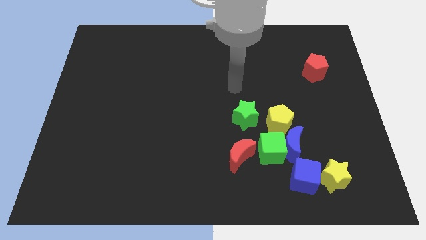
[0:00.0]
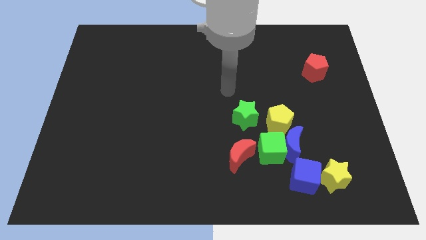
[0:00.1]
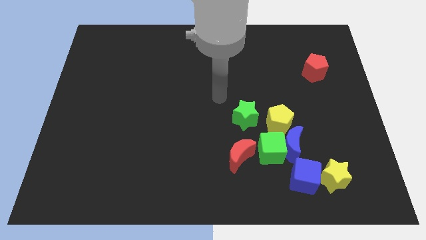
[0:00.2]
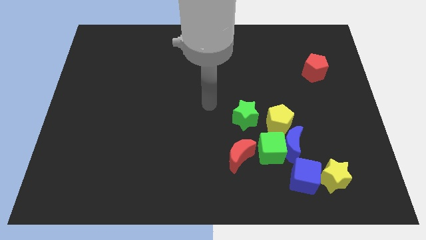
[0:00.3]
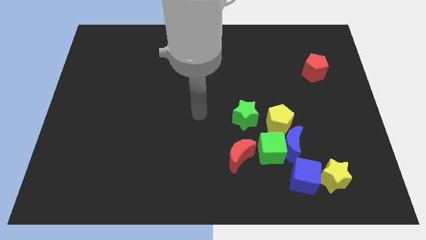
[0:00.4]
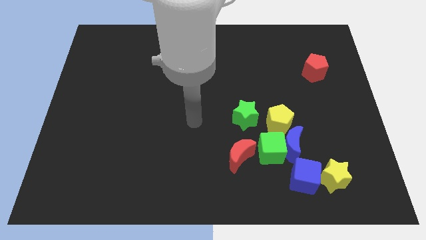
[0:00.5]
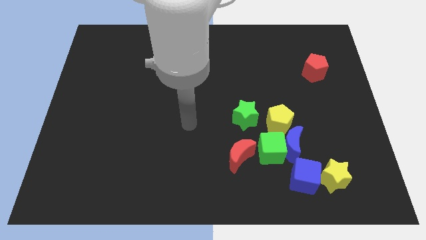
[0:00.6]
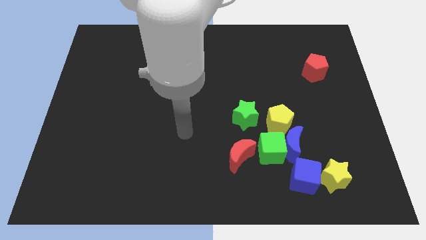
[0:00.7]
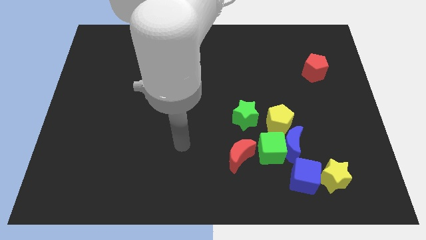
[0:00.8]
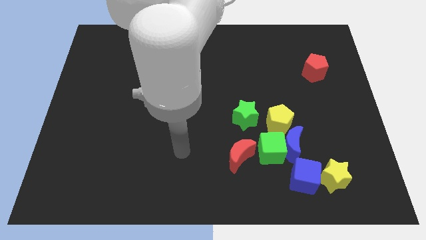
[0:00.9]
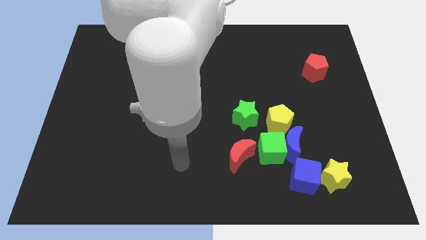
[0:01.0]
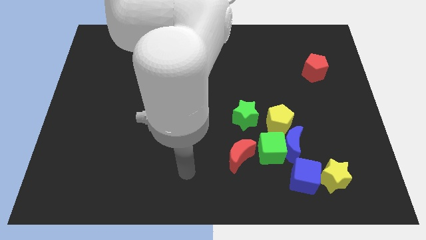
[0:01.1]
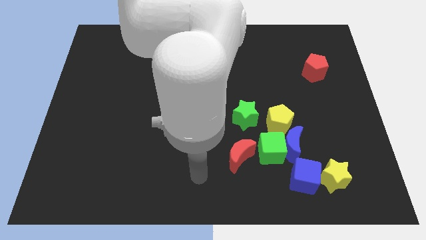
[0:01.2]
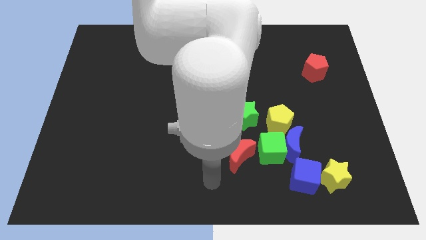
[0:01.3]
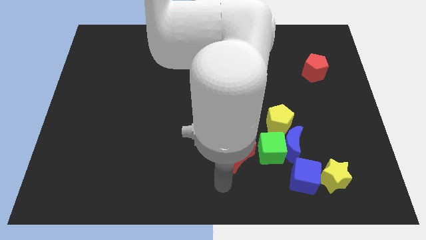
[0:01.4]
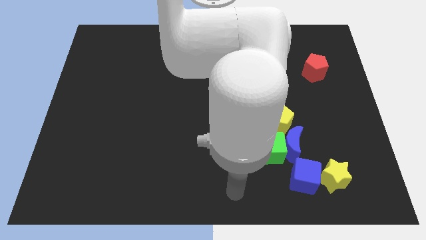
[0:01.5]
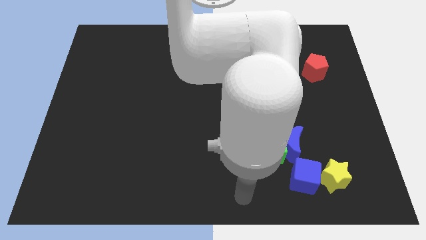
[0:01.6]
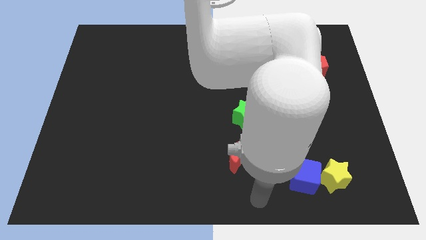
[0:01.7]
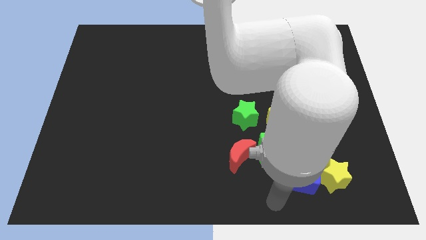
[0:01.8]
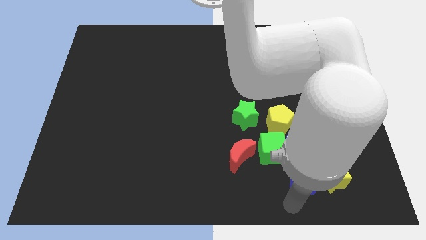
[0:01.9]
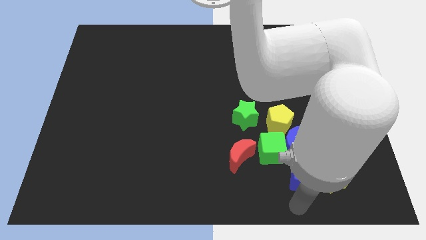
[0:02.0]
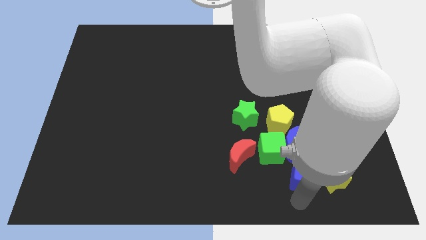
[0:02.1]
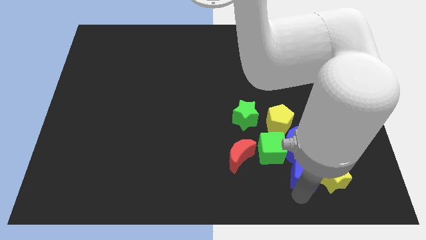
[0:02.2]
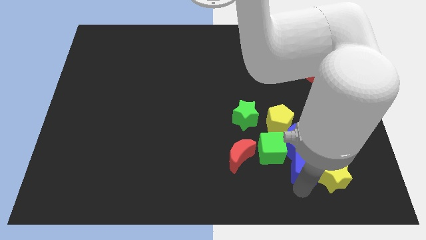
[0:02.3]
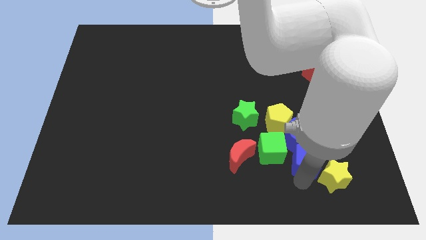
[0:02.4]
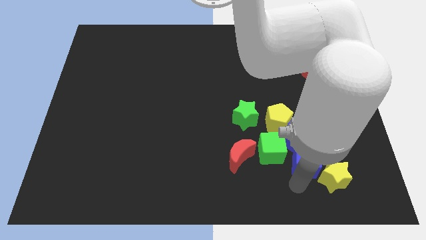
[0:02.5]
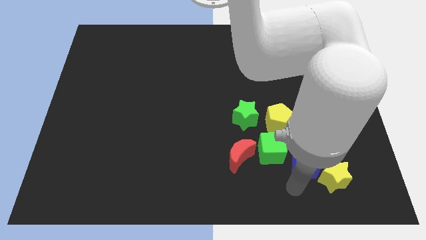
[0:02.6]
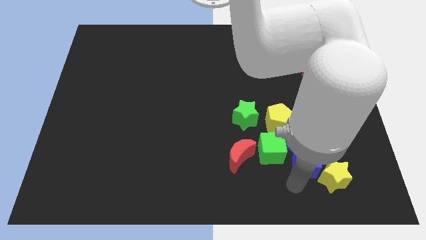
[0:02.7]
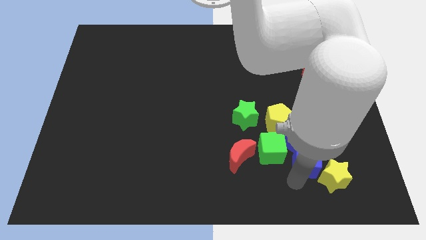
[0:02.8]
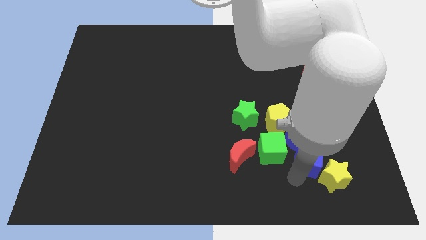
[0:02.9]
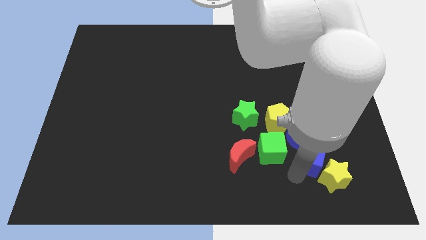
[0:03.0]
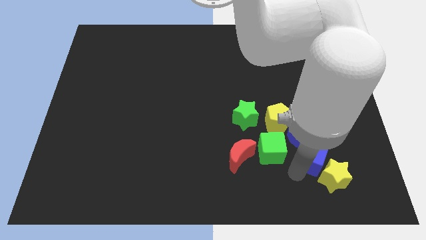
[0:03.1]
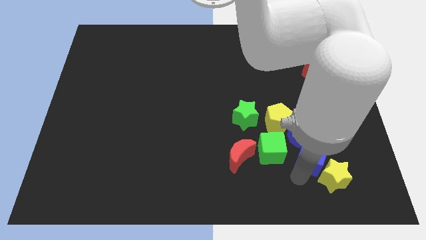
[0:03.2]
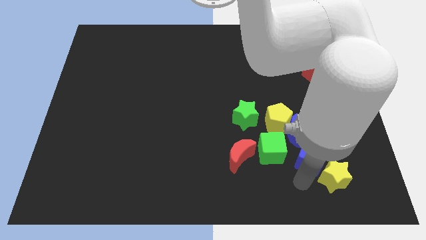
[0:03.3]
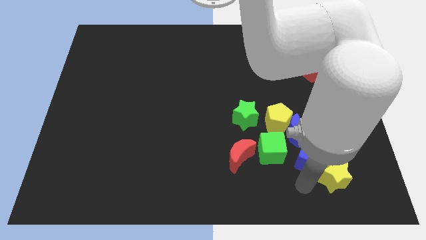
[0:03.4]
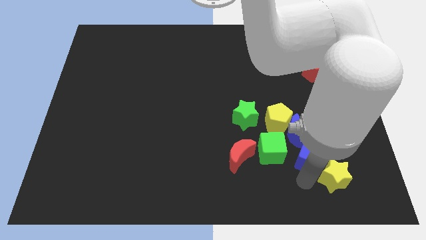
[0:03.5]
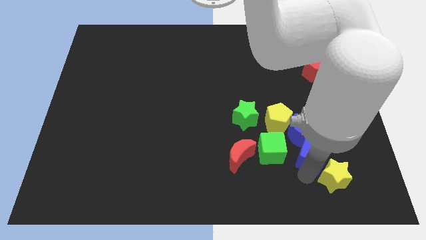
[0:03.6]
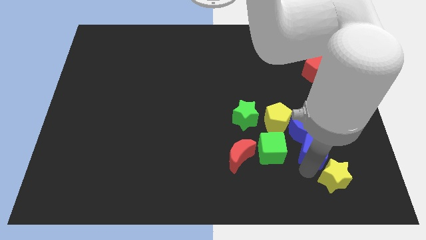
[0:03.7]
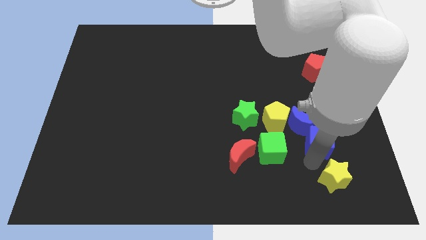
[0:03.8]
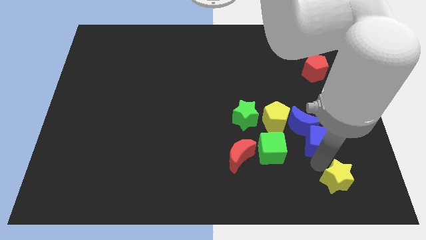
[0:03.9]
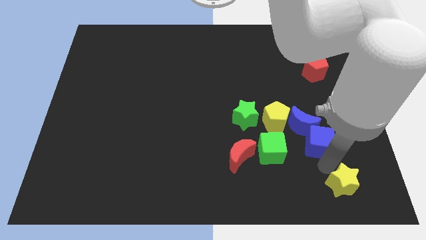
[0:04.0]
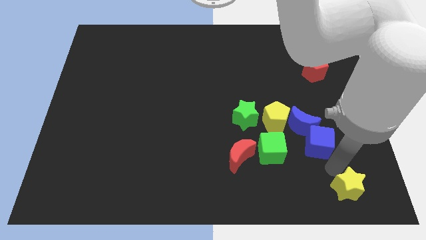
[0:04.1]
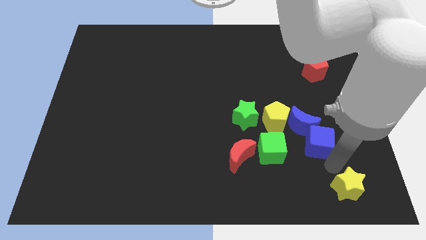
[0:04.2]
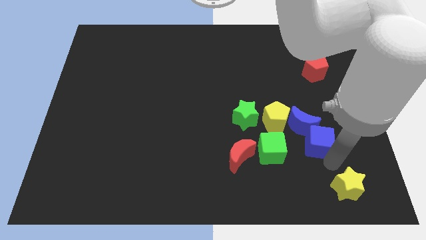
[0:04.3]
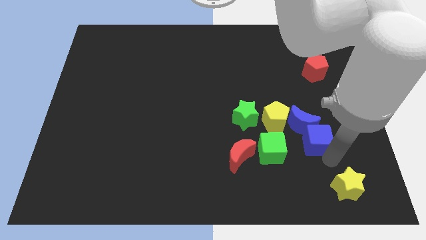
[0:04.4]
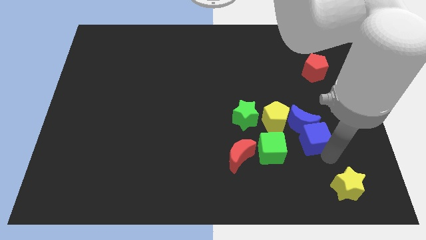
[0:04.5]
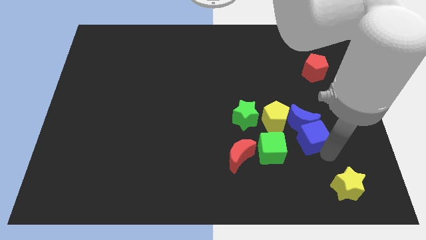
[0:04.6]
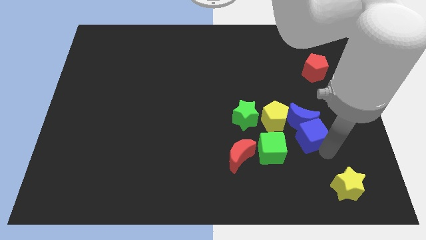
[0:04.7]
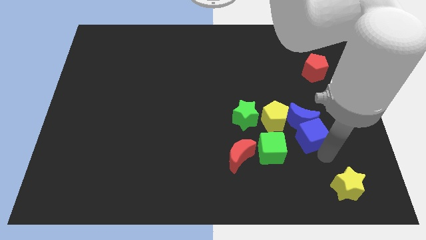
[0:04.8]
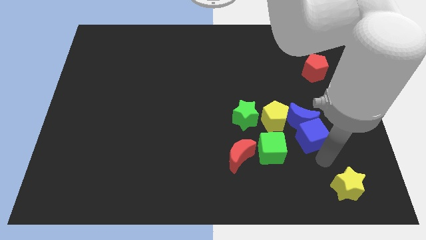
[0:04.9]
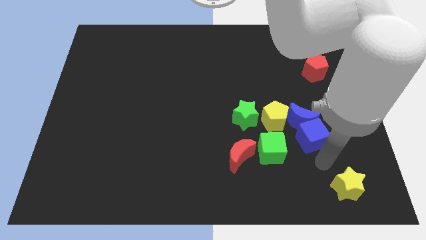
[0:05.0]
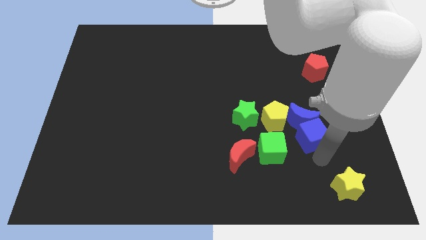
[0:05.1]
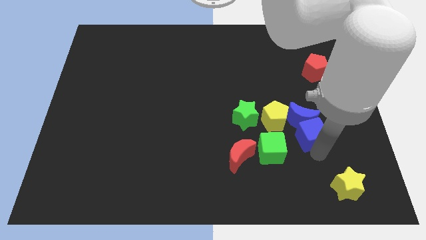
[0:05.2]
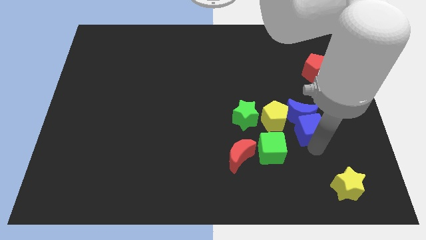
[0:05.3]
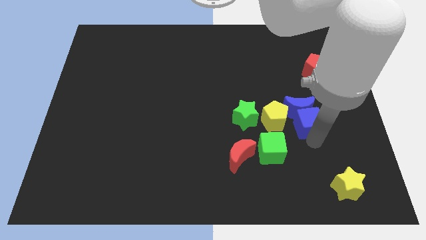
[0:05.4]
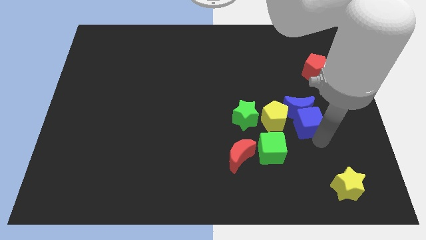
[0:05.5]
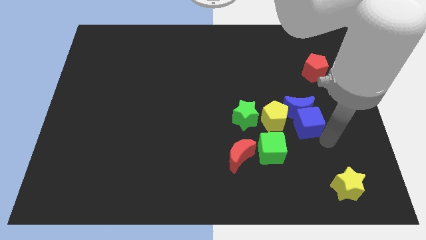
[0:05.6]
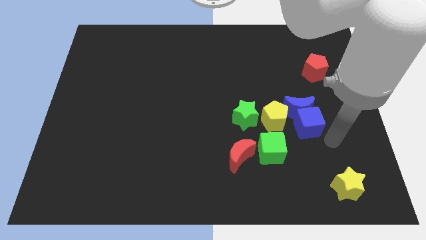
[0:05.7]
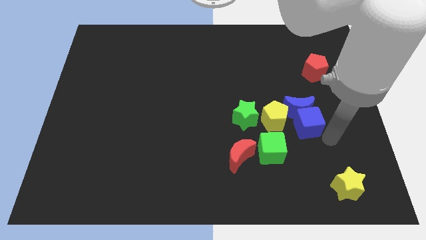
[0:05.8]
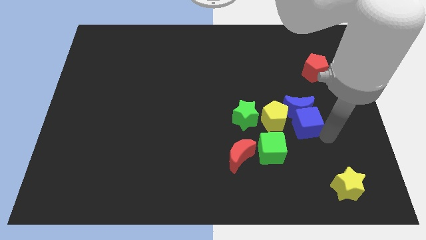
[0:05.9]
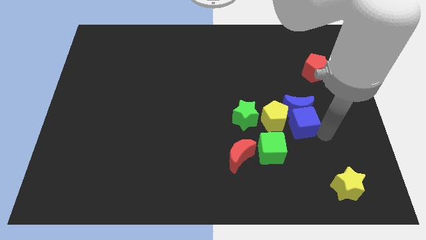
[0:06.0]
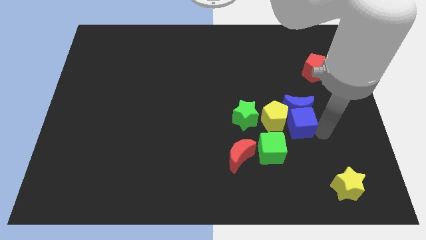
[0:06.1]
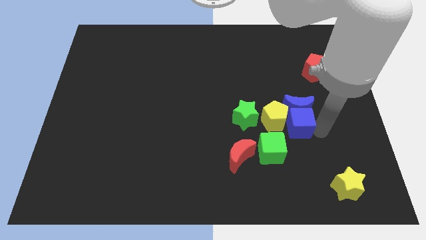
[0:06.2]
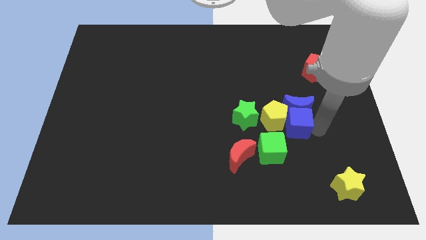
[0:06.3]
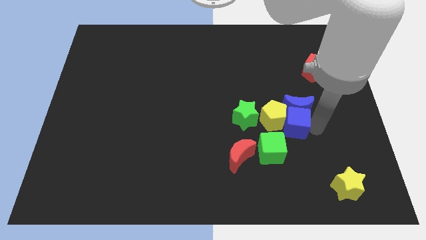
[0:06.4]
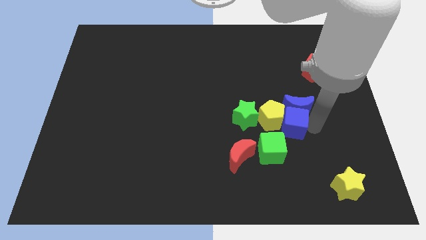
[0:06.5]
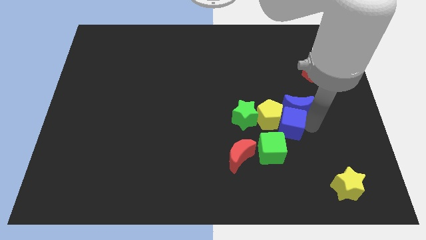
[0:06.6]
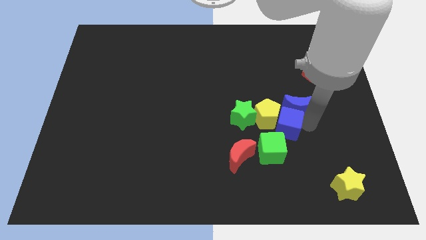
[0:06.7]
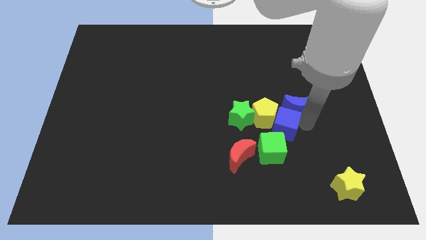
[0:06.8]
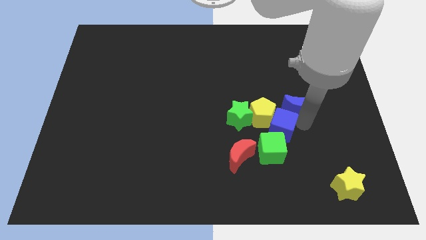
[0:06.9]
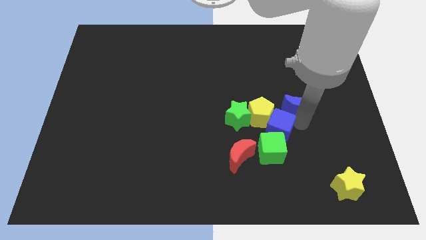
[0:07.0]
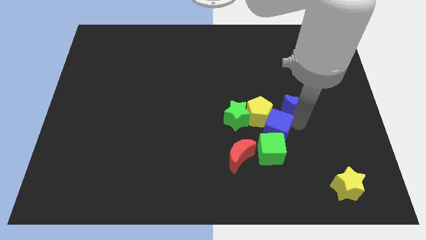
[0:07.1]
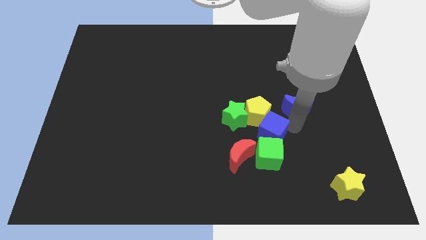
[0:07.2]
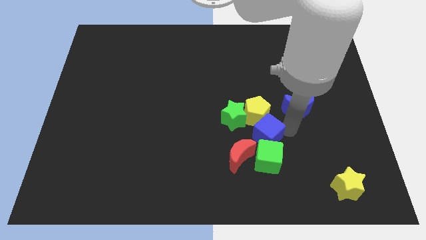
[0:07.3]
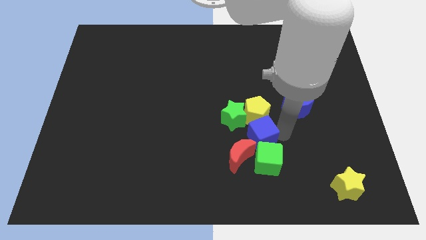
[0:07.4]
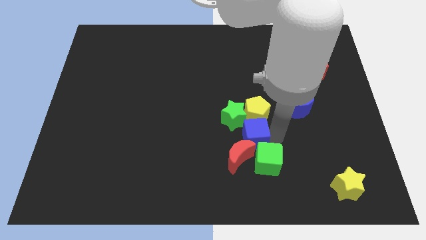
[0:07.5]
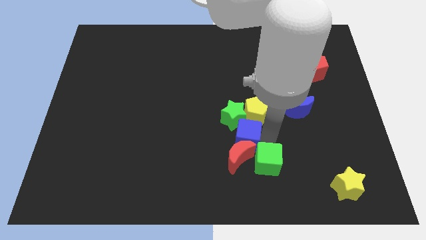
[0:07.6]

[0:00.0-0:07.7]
push the blue cube close to the green star
